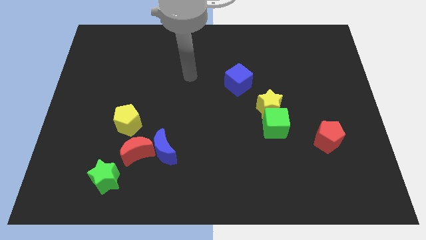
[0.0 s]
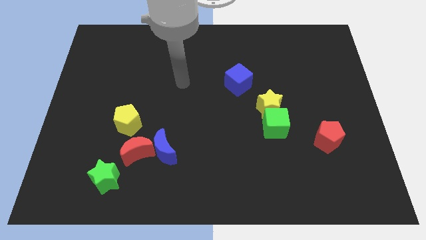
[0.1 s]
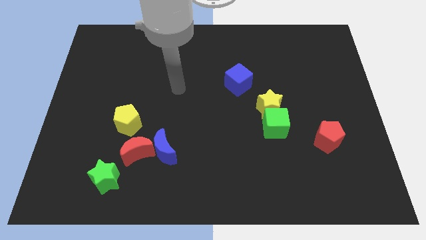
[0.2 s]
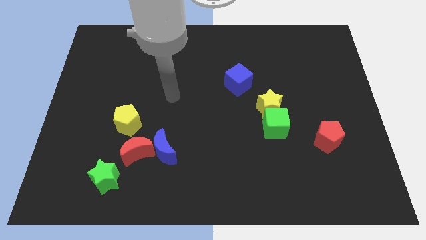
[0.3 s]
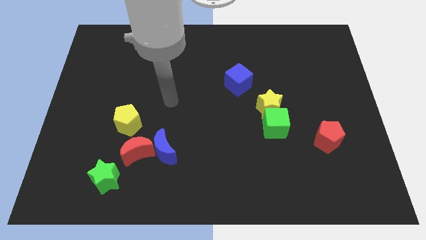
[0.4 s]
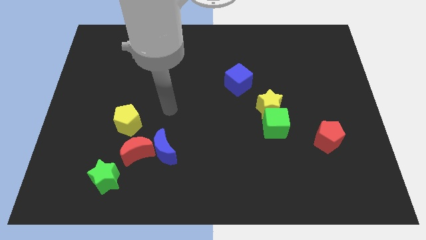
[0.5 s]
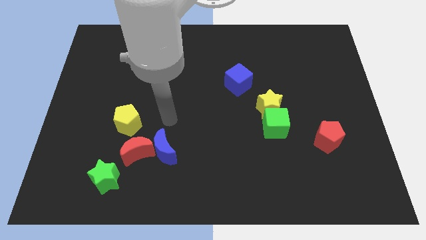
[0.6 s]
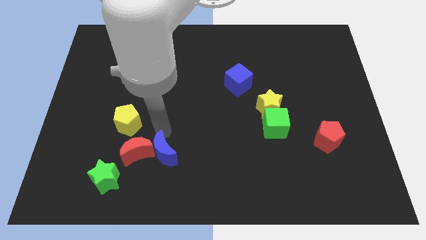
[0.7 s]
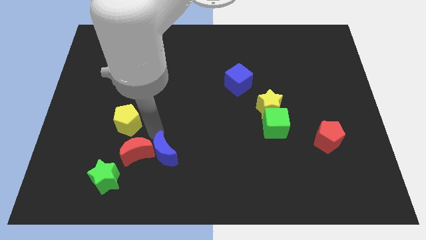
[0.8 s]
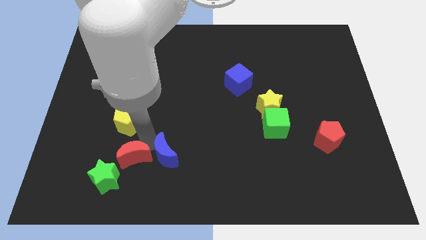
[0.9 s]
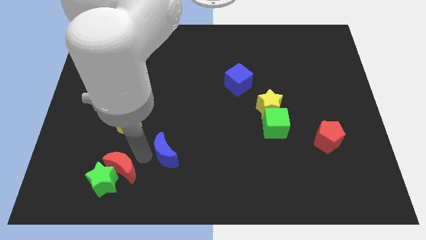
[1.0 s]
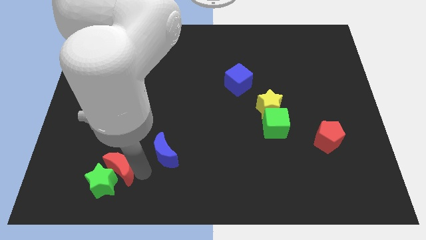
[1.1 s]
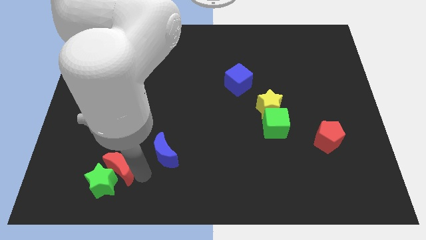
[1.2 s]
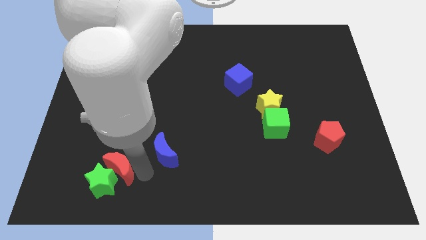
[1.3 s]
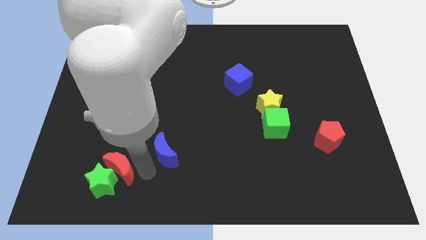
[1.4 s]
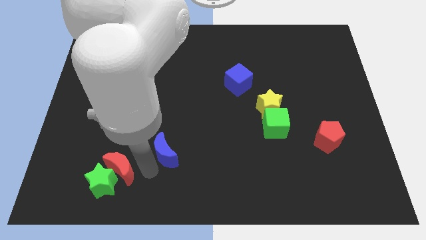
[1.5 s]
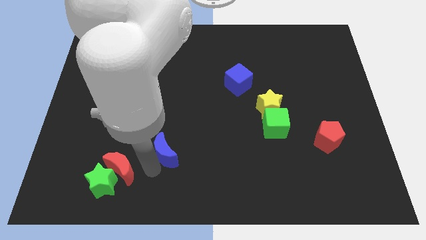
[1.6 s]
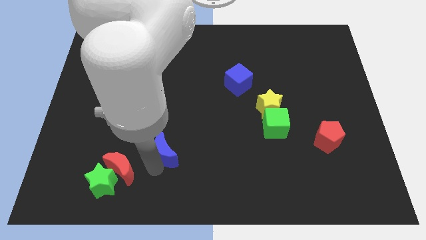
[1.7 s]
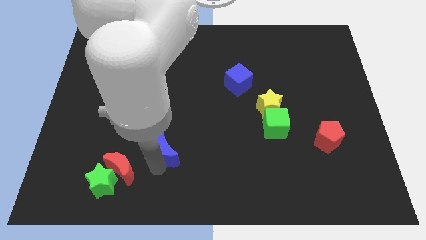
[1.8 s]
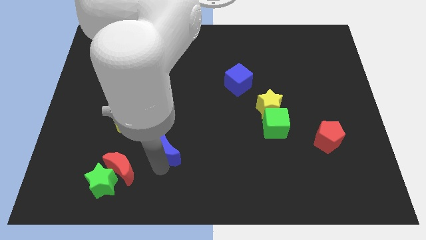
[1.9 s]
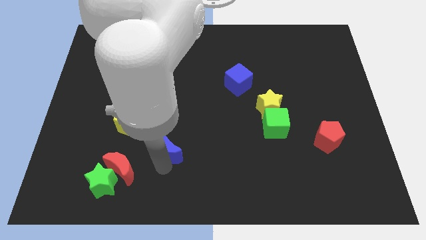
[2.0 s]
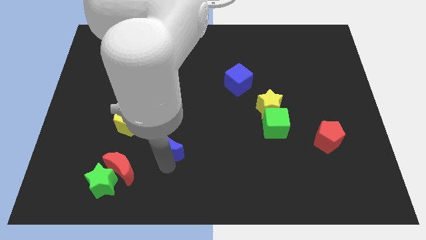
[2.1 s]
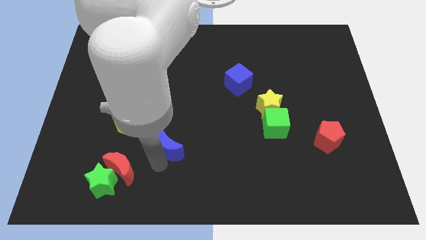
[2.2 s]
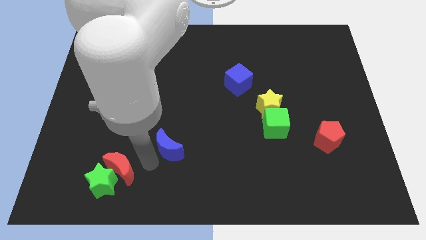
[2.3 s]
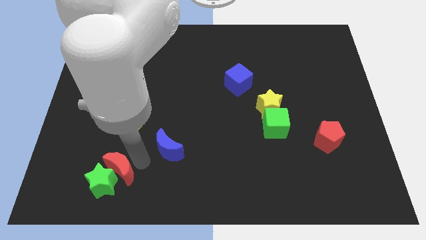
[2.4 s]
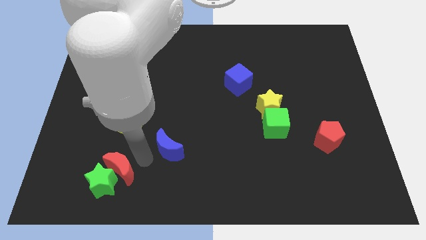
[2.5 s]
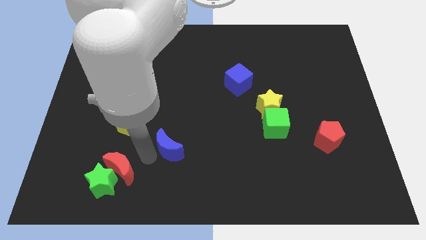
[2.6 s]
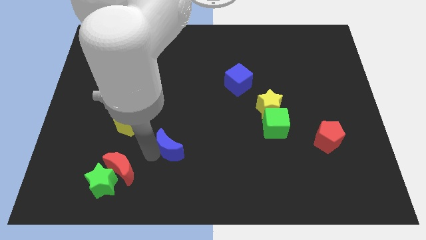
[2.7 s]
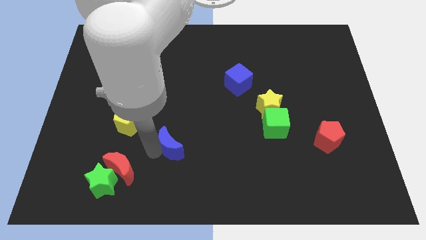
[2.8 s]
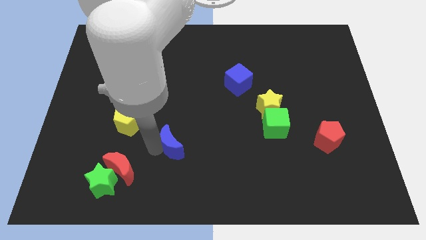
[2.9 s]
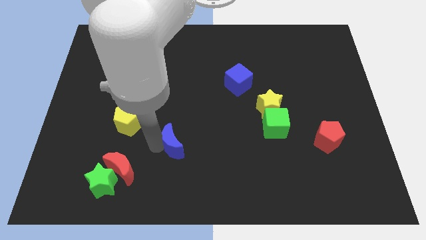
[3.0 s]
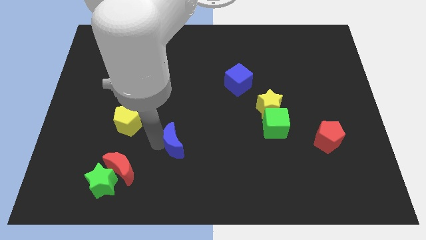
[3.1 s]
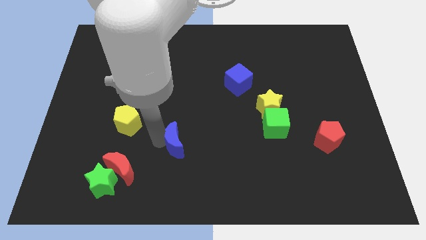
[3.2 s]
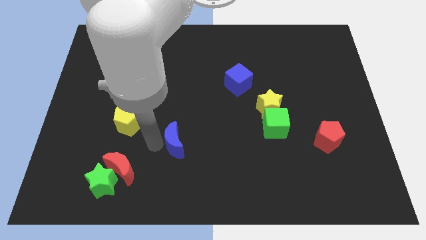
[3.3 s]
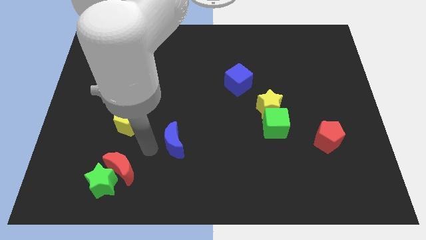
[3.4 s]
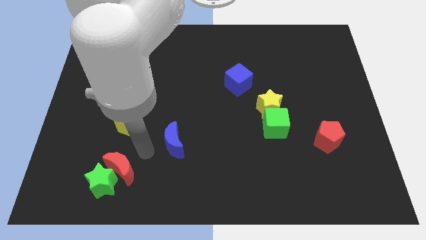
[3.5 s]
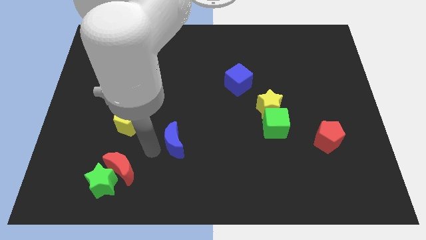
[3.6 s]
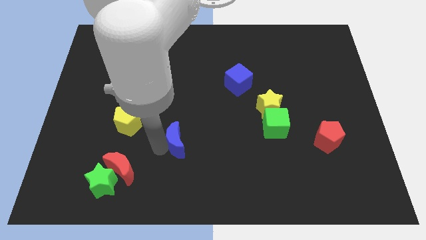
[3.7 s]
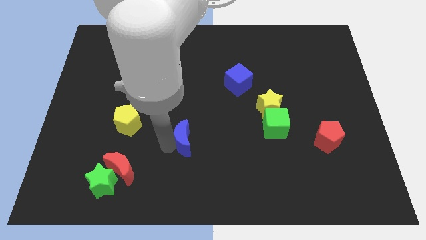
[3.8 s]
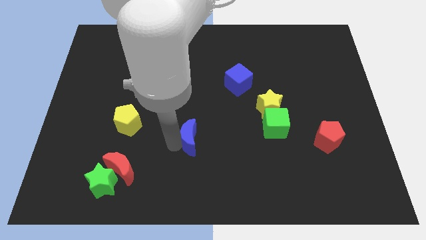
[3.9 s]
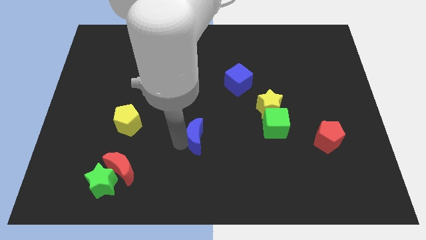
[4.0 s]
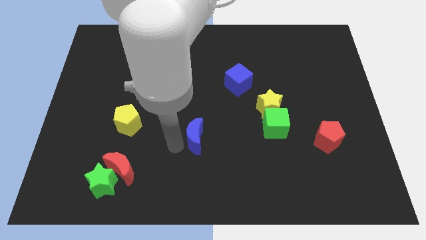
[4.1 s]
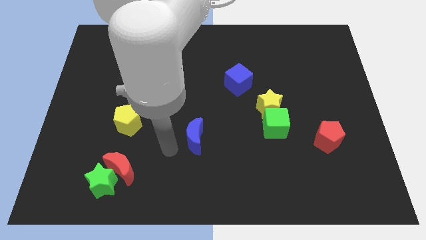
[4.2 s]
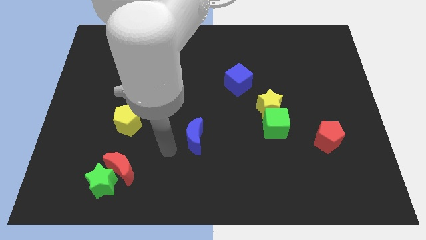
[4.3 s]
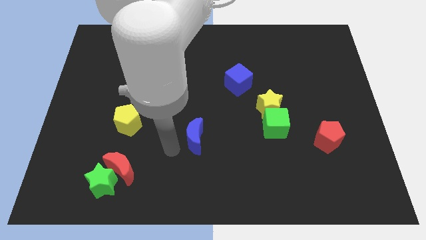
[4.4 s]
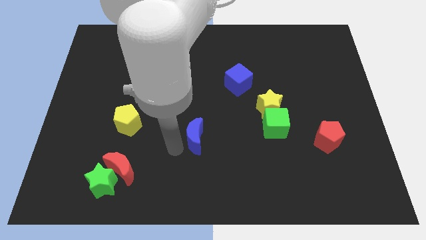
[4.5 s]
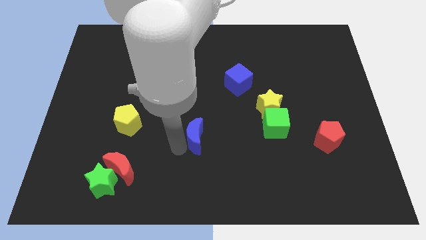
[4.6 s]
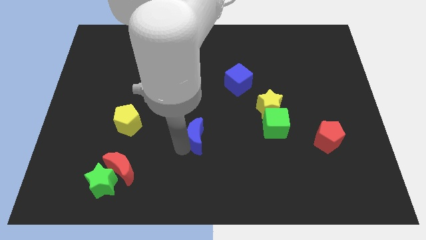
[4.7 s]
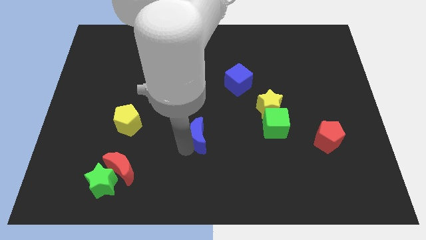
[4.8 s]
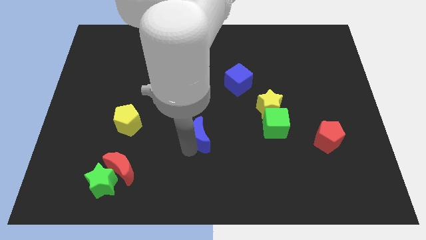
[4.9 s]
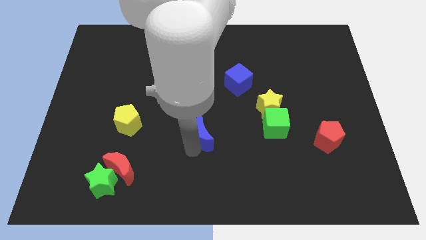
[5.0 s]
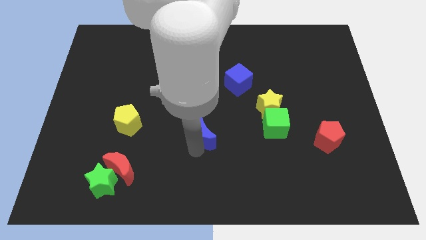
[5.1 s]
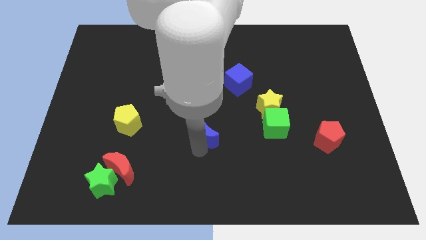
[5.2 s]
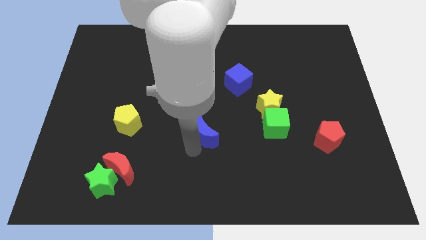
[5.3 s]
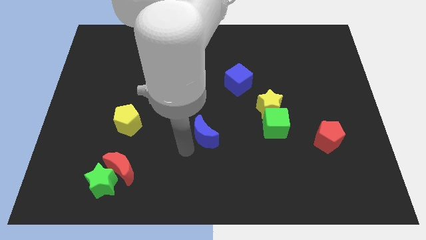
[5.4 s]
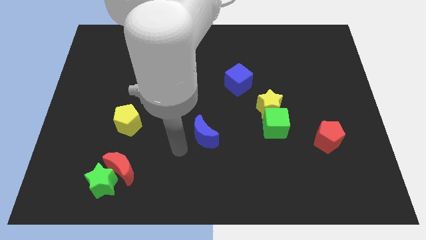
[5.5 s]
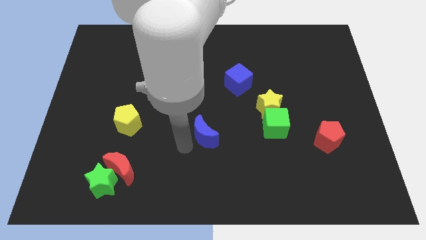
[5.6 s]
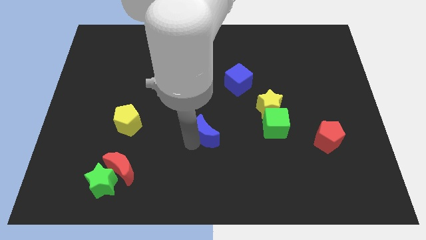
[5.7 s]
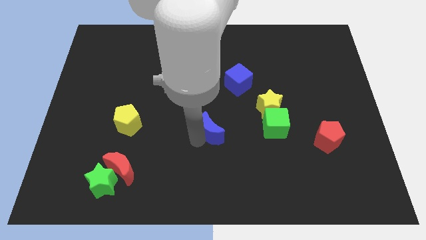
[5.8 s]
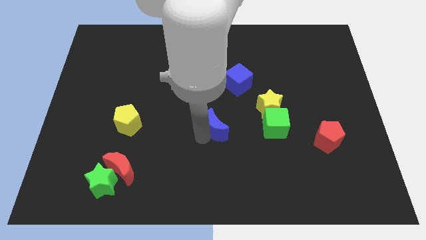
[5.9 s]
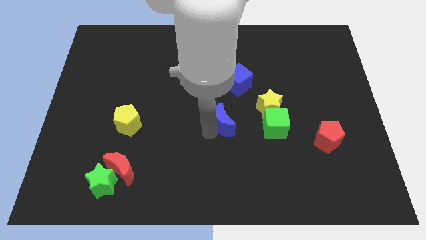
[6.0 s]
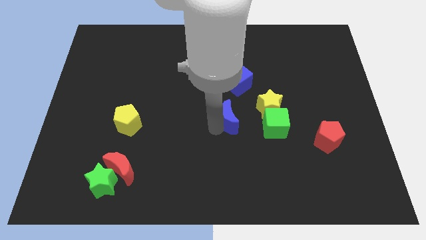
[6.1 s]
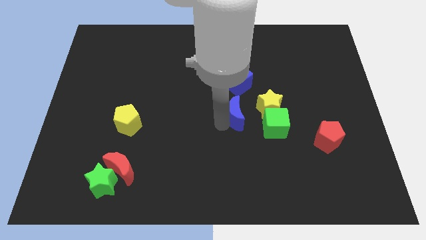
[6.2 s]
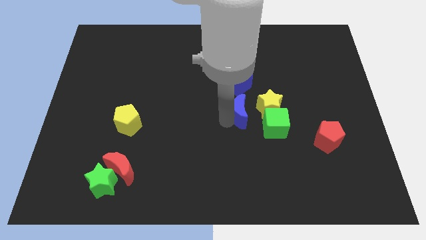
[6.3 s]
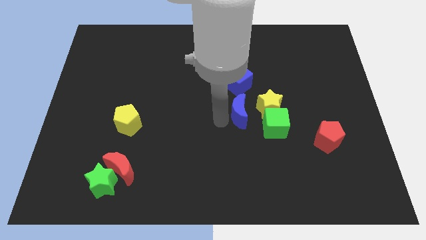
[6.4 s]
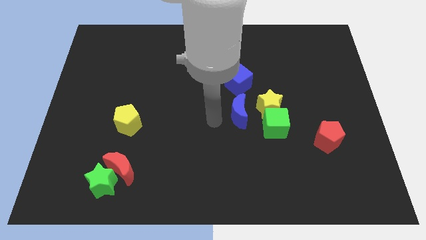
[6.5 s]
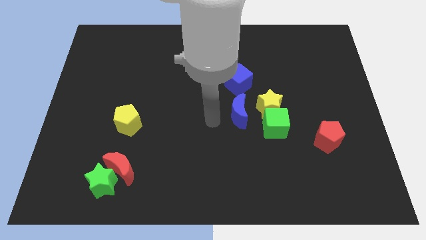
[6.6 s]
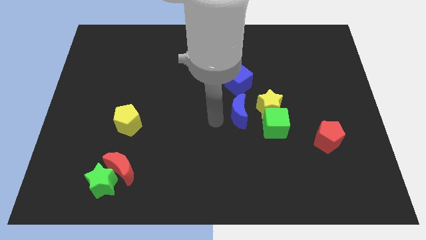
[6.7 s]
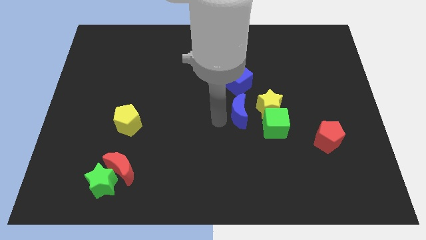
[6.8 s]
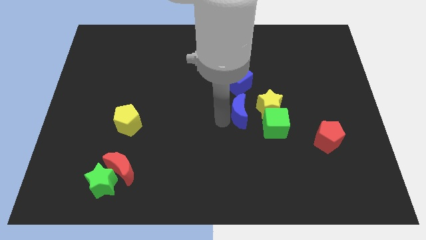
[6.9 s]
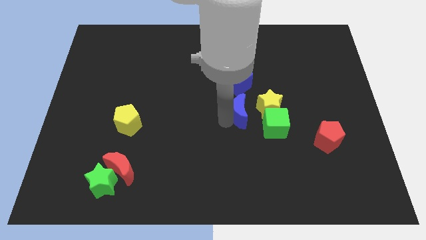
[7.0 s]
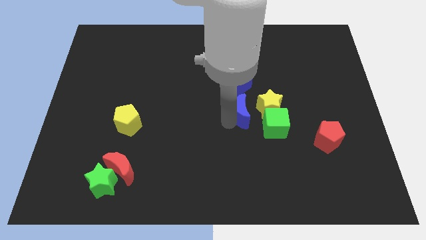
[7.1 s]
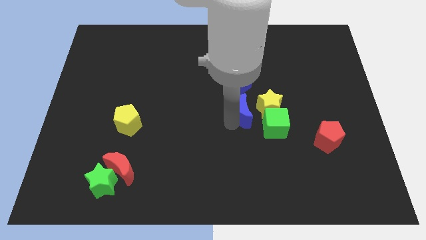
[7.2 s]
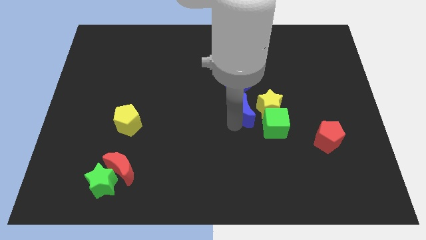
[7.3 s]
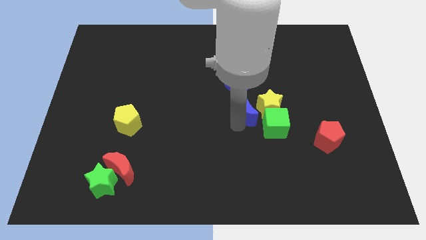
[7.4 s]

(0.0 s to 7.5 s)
put the blue moon towards the yellow star
